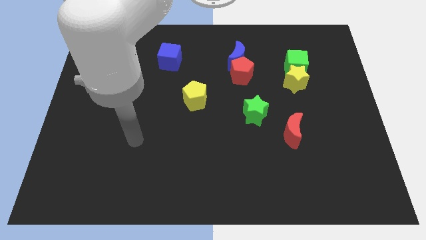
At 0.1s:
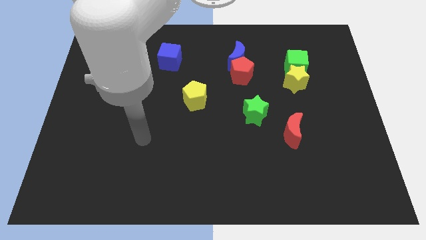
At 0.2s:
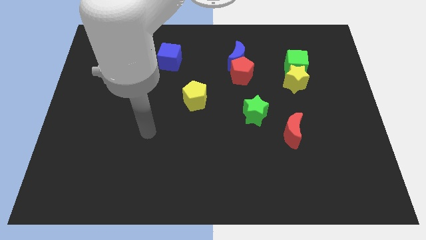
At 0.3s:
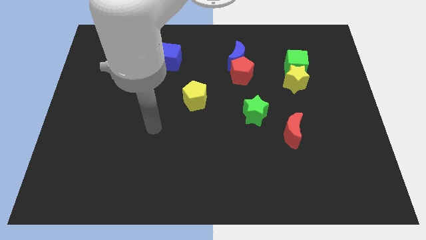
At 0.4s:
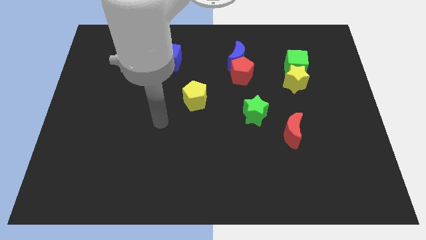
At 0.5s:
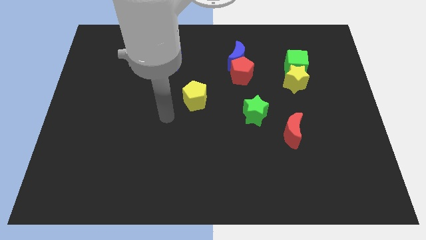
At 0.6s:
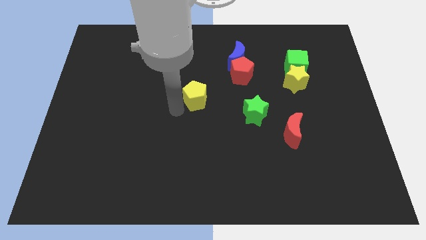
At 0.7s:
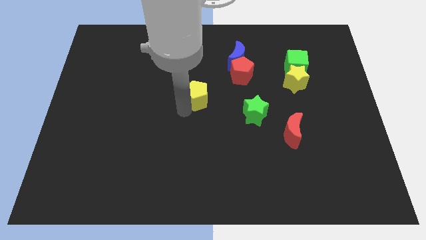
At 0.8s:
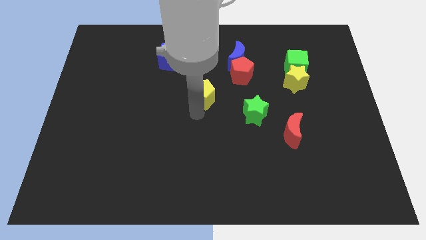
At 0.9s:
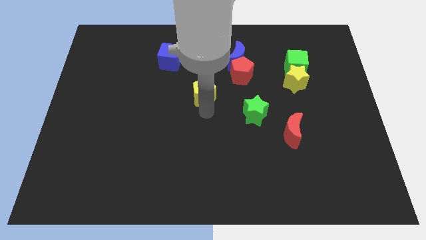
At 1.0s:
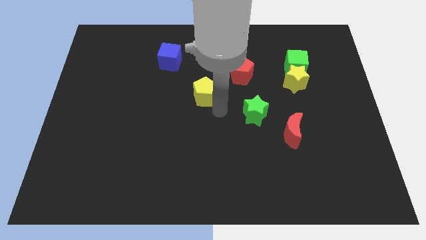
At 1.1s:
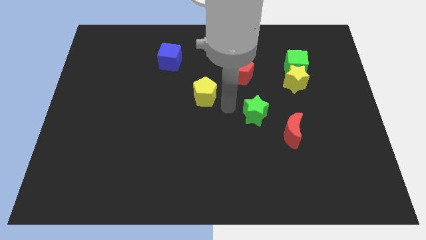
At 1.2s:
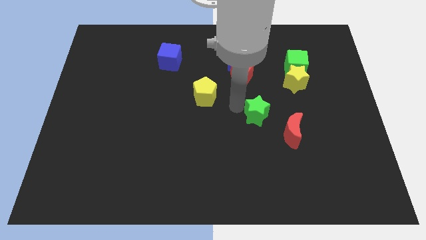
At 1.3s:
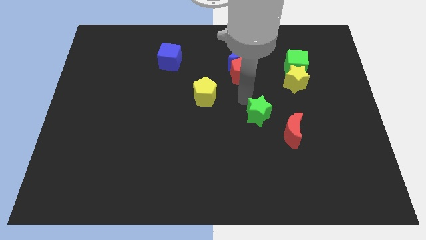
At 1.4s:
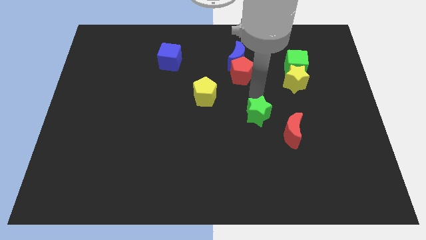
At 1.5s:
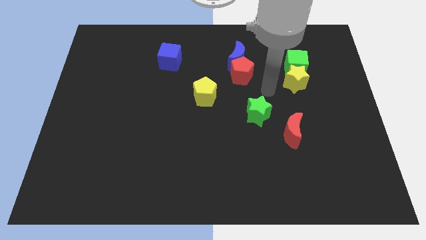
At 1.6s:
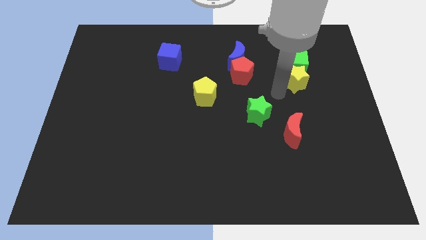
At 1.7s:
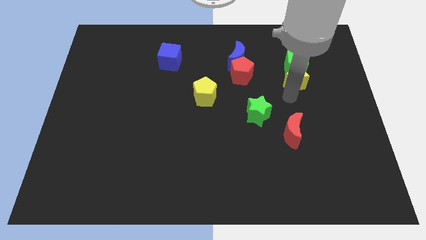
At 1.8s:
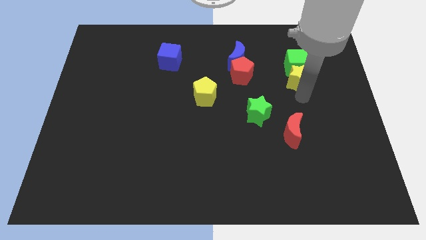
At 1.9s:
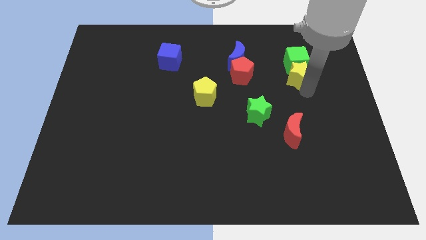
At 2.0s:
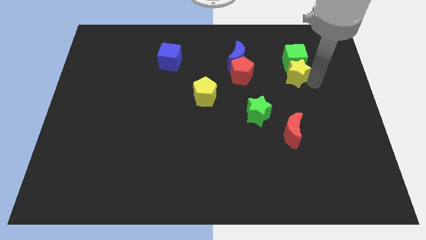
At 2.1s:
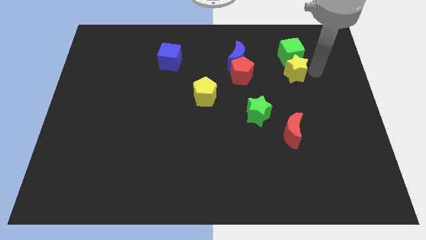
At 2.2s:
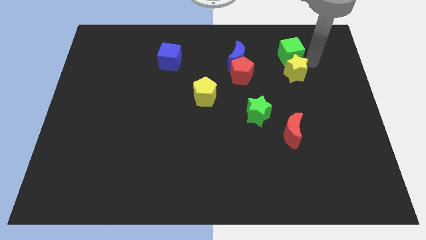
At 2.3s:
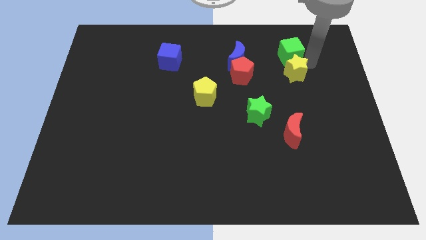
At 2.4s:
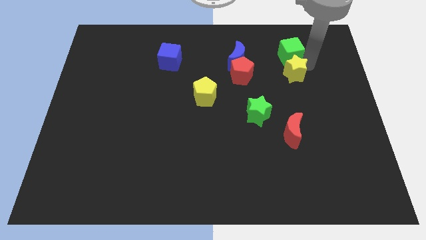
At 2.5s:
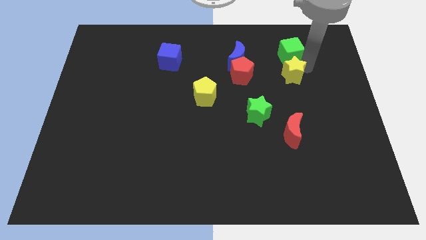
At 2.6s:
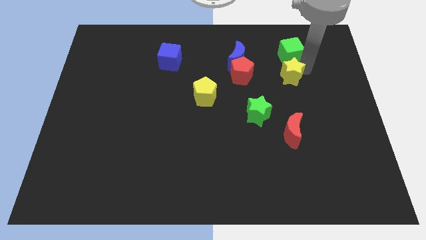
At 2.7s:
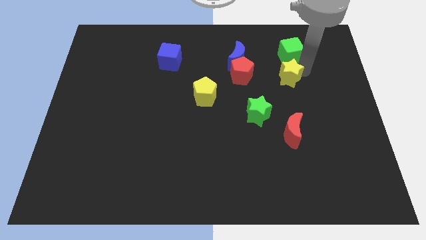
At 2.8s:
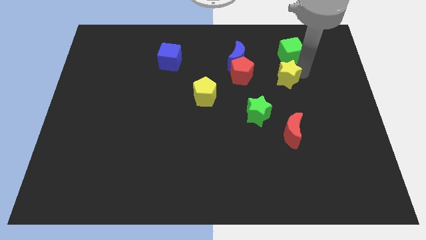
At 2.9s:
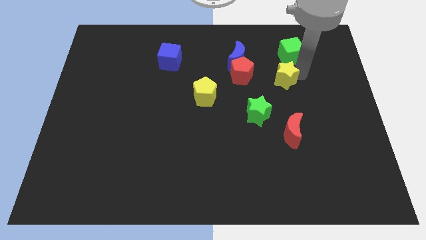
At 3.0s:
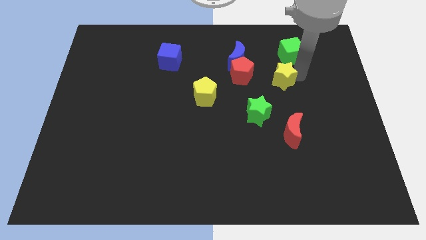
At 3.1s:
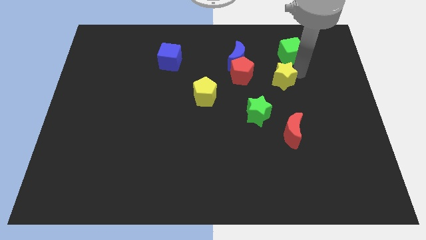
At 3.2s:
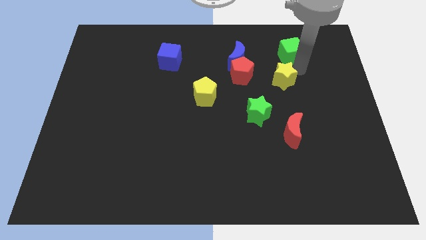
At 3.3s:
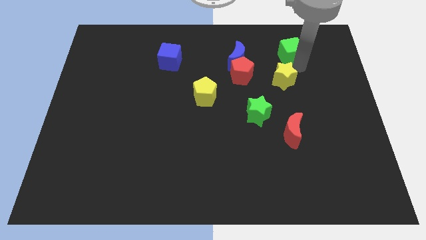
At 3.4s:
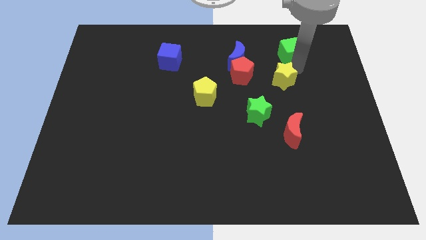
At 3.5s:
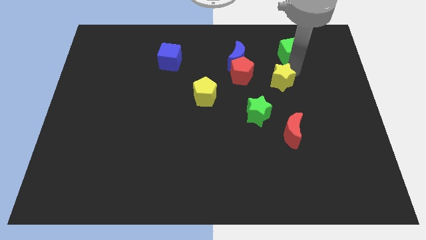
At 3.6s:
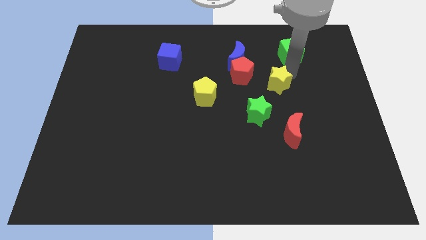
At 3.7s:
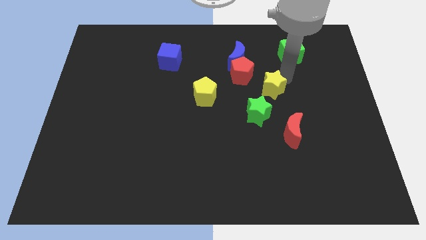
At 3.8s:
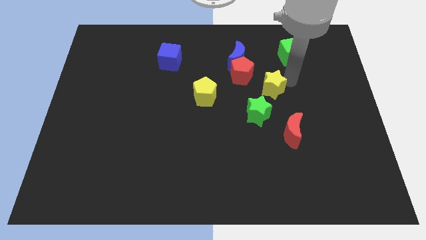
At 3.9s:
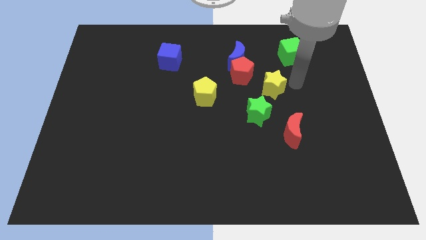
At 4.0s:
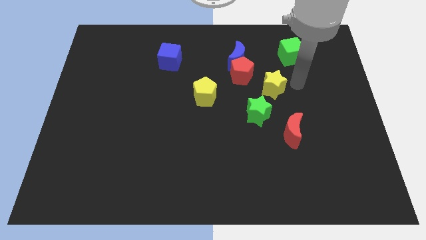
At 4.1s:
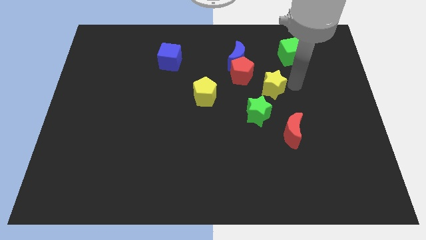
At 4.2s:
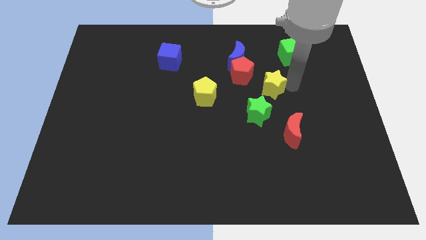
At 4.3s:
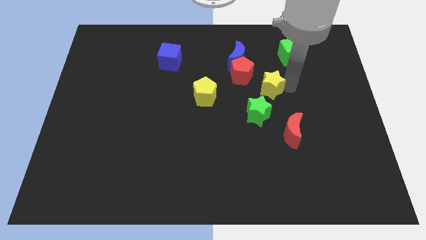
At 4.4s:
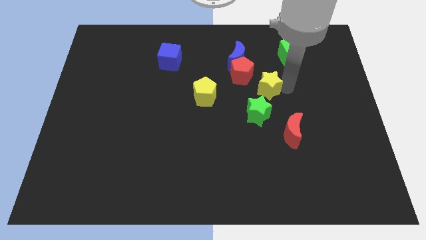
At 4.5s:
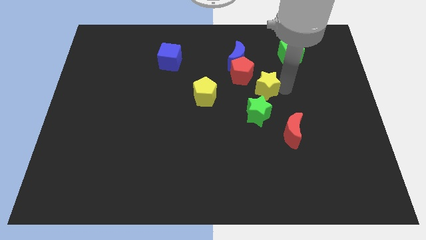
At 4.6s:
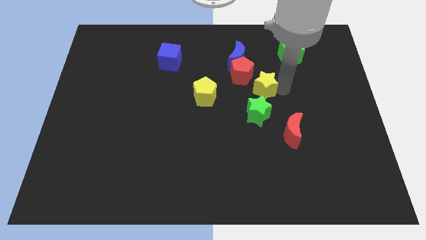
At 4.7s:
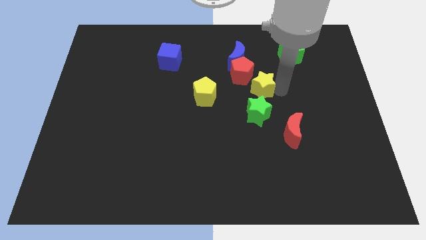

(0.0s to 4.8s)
push the yellow star to the middle

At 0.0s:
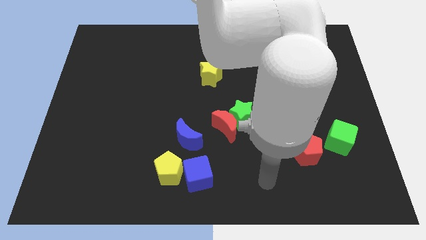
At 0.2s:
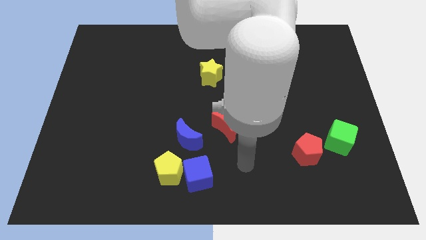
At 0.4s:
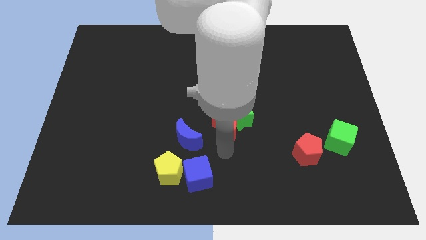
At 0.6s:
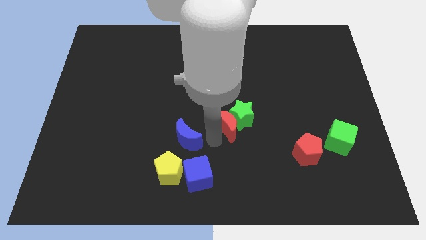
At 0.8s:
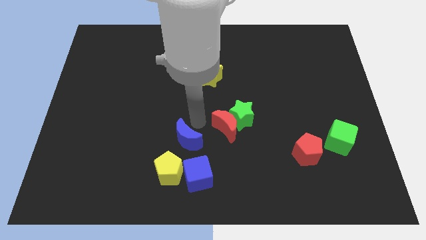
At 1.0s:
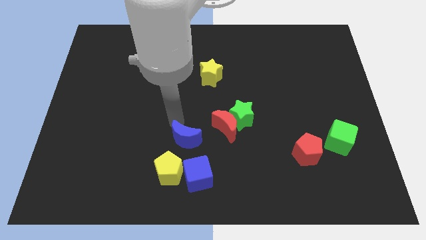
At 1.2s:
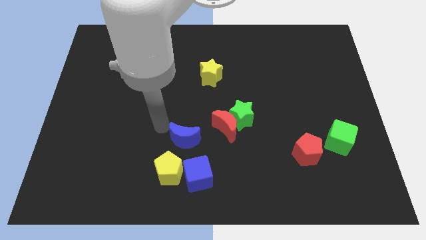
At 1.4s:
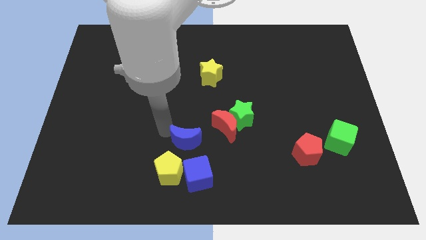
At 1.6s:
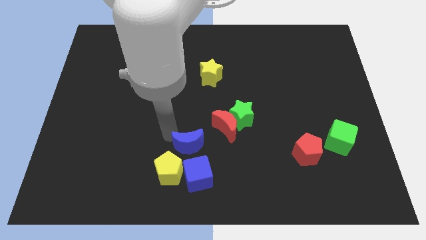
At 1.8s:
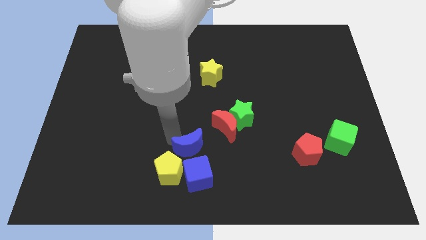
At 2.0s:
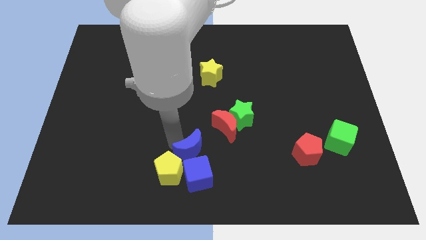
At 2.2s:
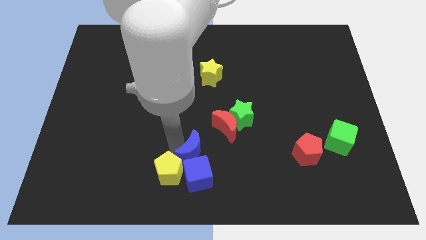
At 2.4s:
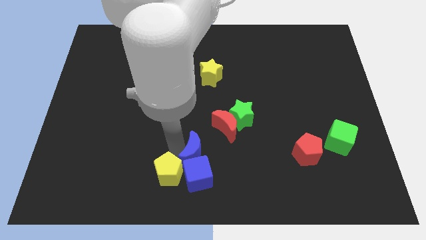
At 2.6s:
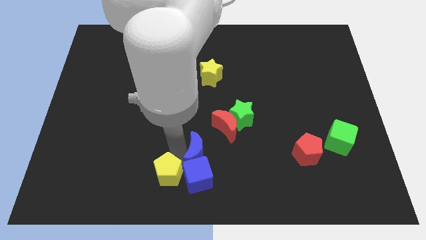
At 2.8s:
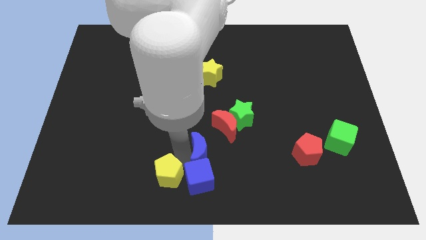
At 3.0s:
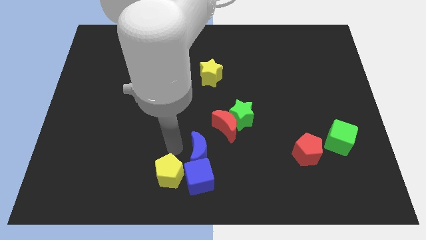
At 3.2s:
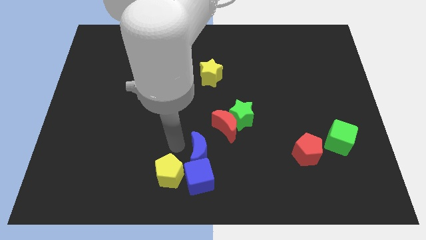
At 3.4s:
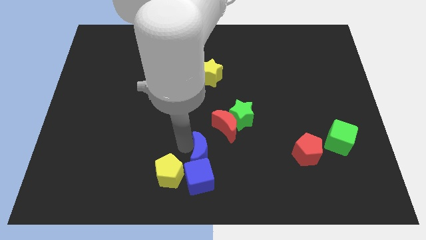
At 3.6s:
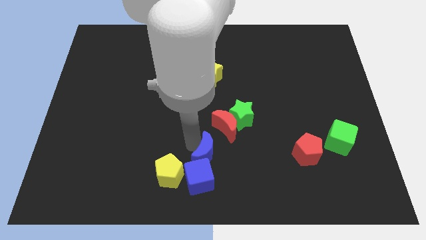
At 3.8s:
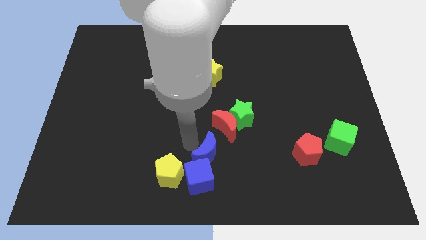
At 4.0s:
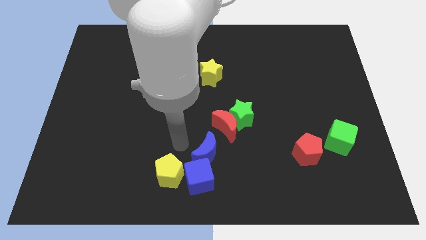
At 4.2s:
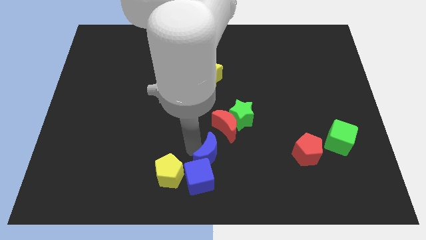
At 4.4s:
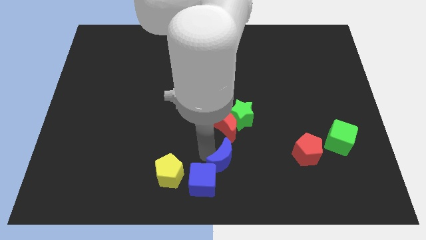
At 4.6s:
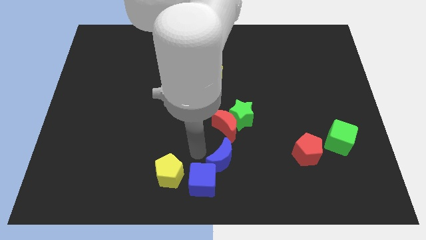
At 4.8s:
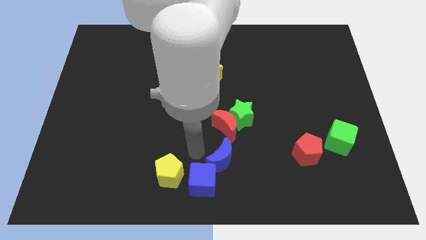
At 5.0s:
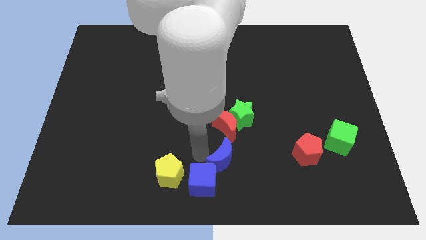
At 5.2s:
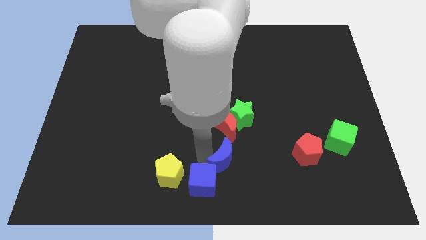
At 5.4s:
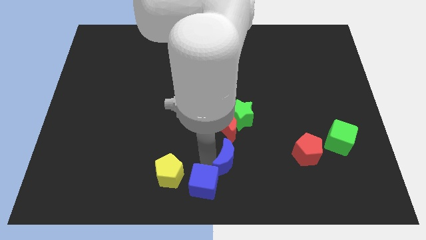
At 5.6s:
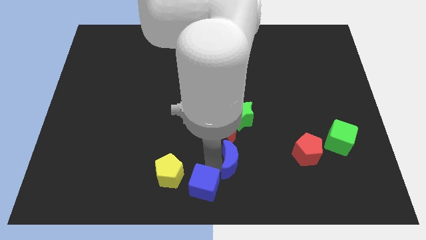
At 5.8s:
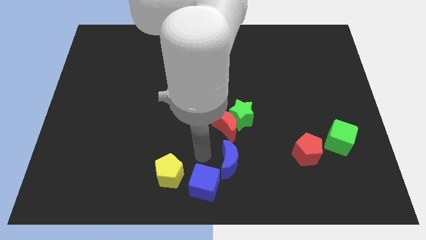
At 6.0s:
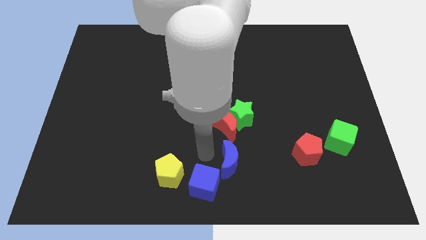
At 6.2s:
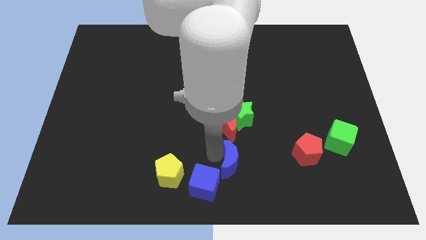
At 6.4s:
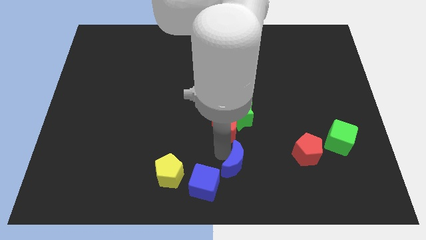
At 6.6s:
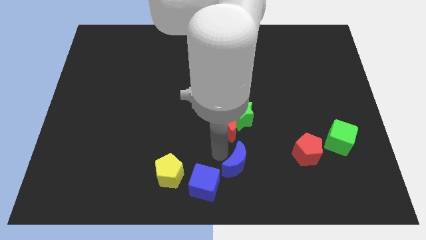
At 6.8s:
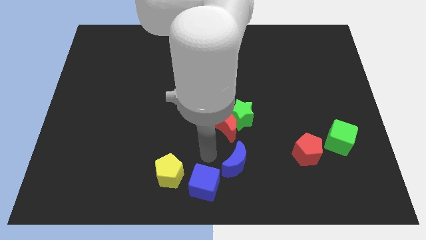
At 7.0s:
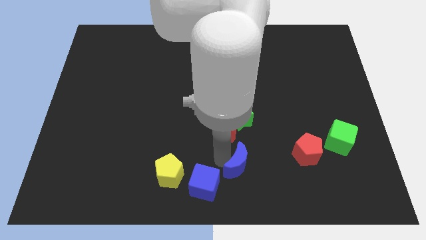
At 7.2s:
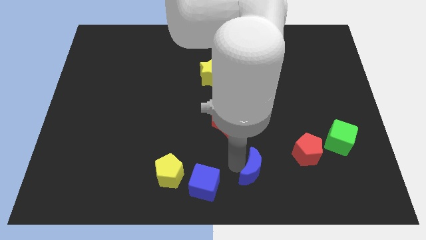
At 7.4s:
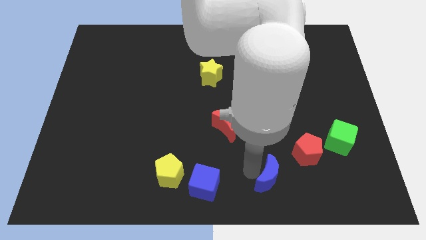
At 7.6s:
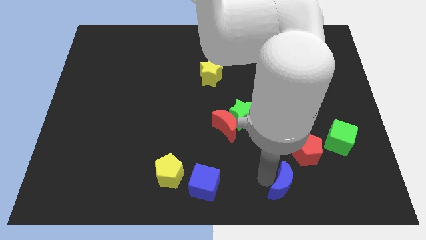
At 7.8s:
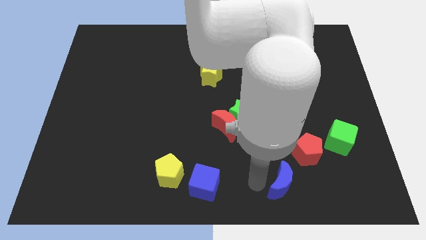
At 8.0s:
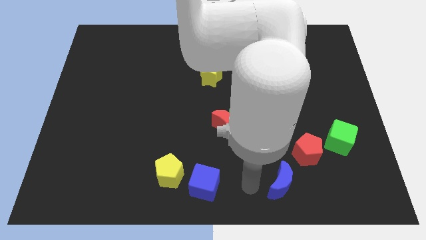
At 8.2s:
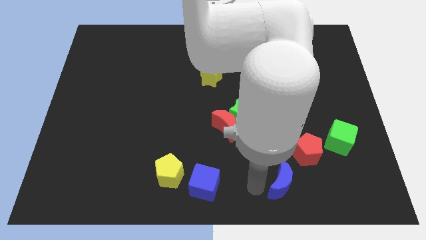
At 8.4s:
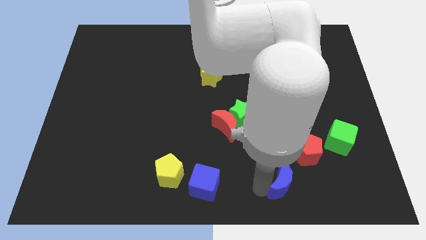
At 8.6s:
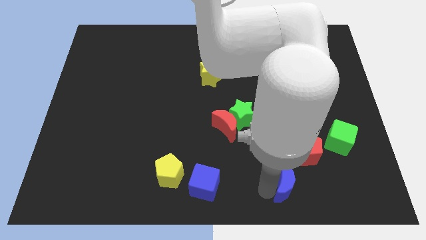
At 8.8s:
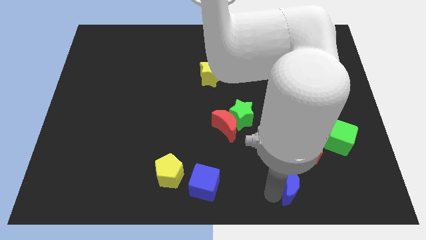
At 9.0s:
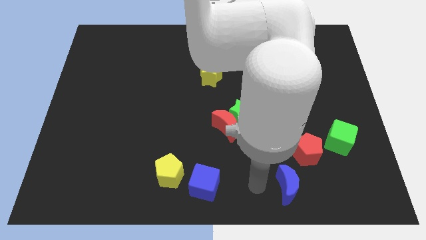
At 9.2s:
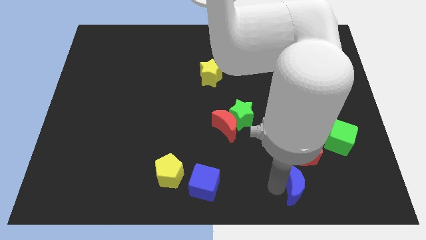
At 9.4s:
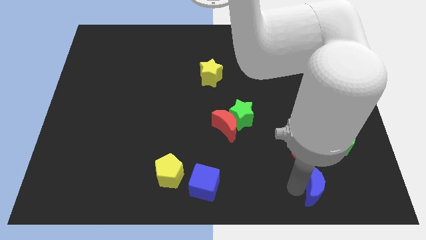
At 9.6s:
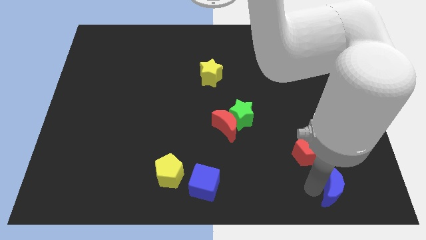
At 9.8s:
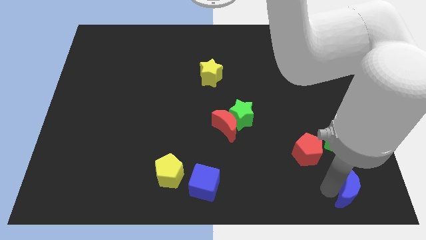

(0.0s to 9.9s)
move the blue moon to the lower right corner
